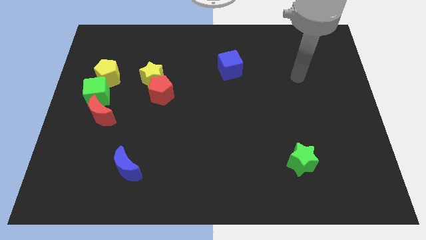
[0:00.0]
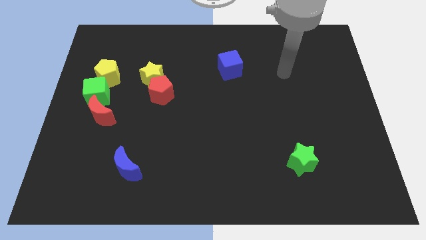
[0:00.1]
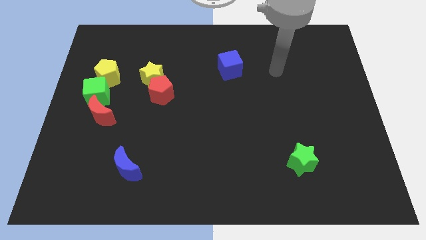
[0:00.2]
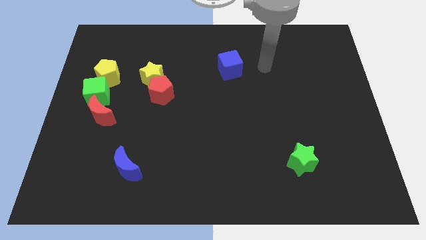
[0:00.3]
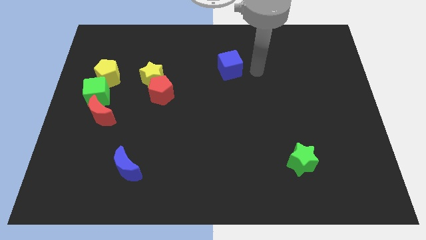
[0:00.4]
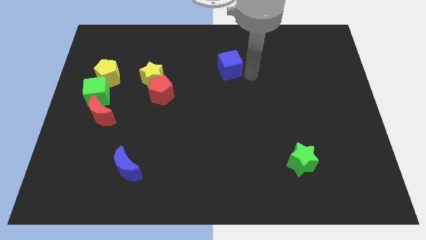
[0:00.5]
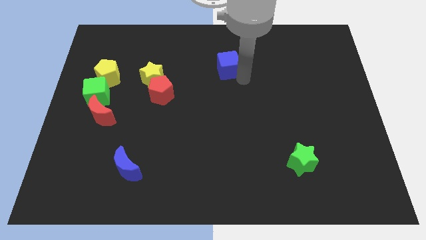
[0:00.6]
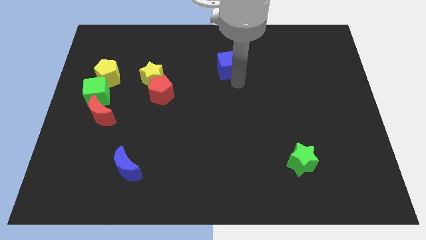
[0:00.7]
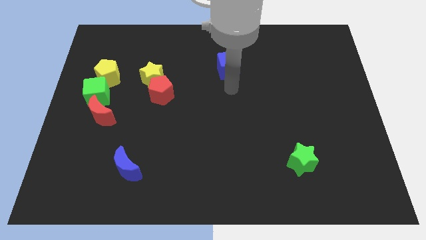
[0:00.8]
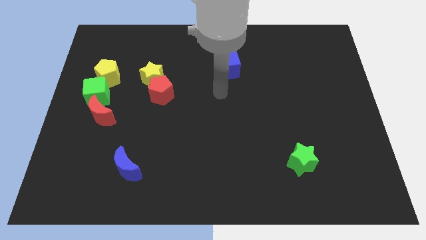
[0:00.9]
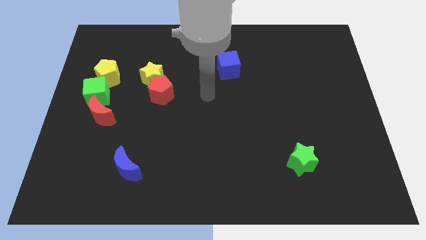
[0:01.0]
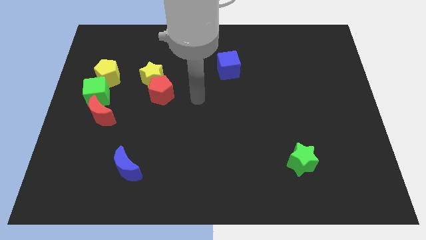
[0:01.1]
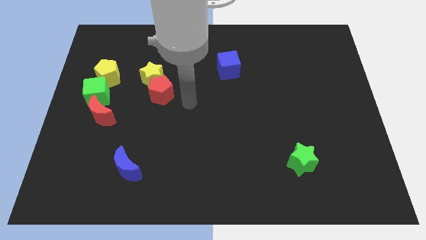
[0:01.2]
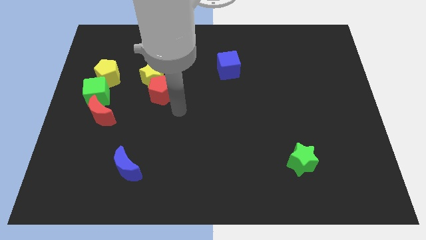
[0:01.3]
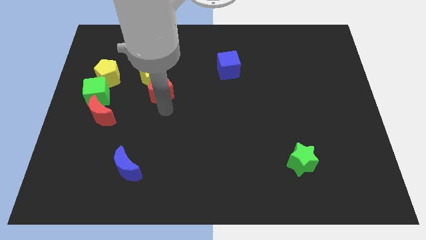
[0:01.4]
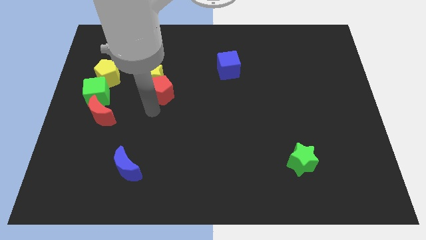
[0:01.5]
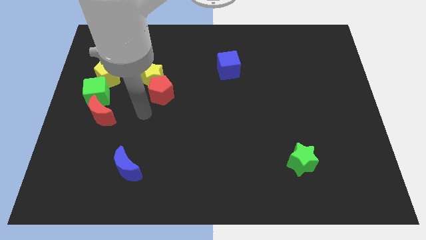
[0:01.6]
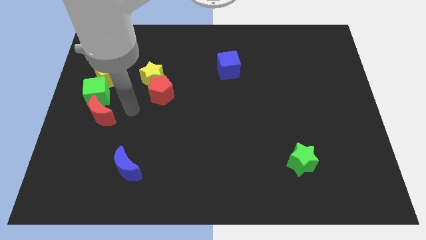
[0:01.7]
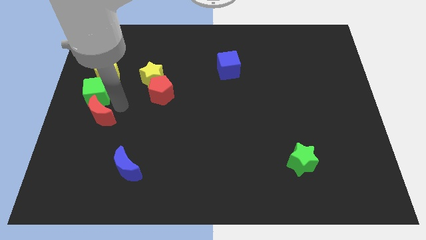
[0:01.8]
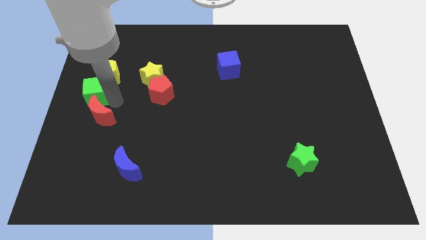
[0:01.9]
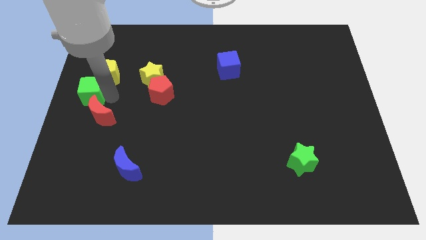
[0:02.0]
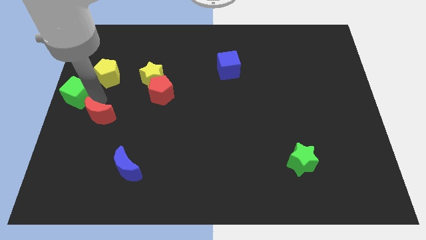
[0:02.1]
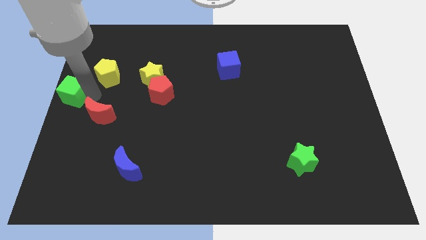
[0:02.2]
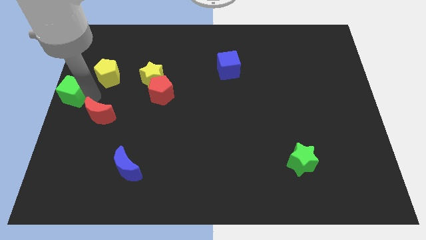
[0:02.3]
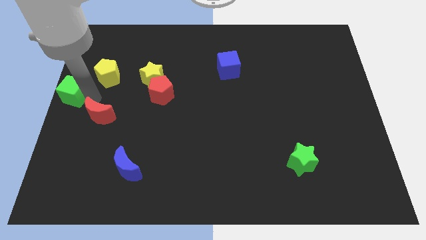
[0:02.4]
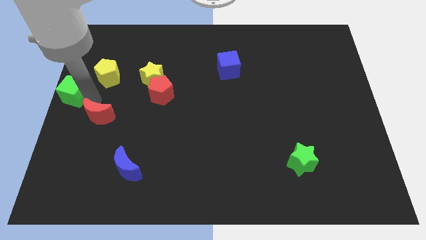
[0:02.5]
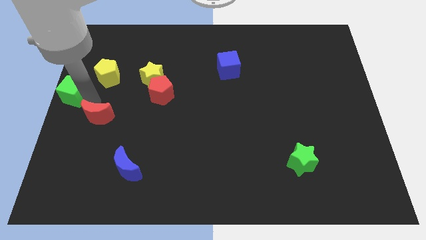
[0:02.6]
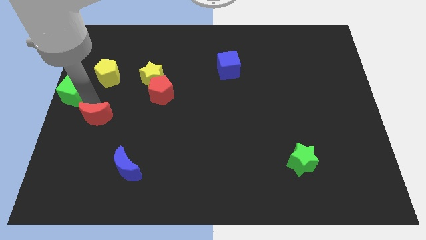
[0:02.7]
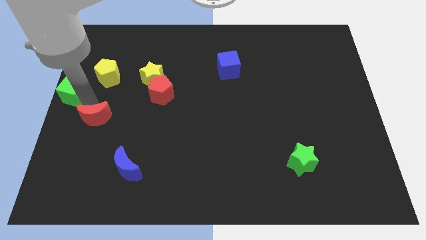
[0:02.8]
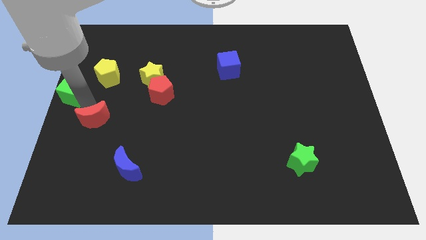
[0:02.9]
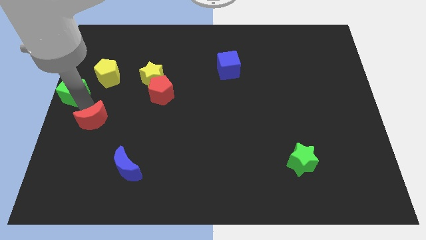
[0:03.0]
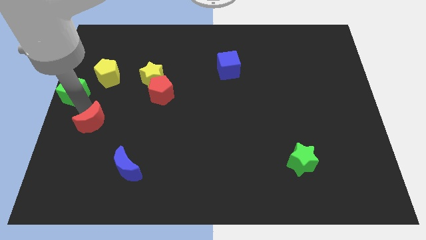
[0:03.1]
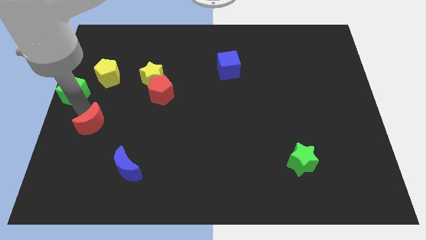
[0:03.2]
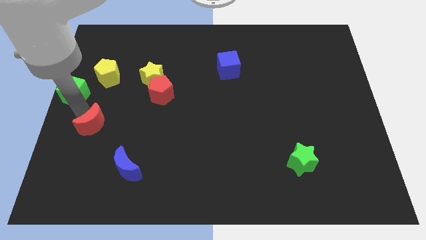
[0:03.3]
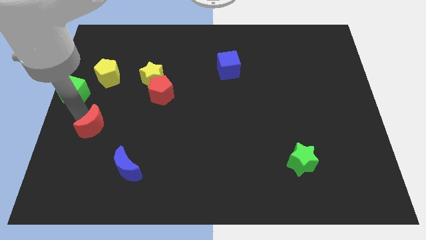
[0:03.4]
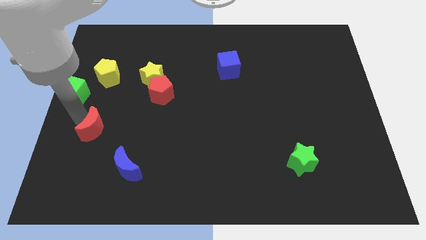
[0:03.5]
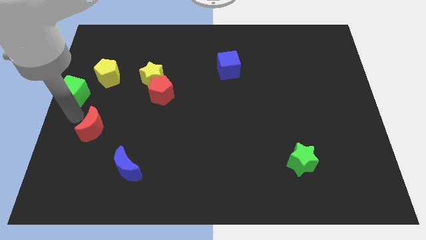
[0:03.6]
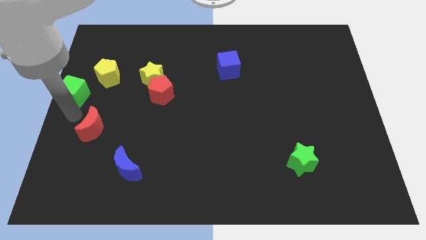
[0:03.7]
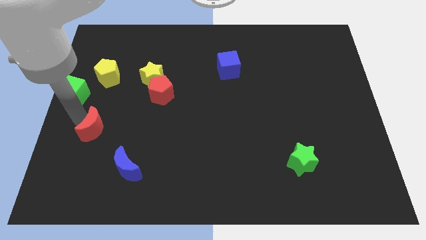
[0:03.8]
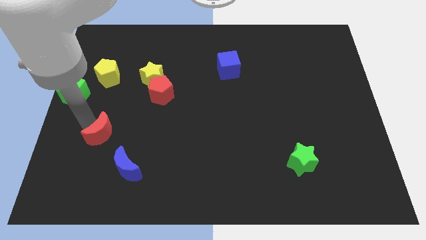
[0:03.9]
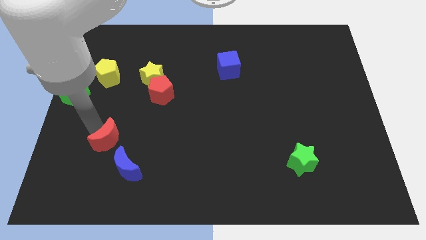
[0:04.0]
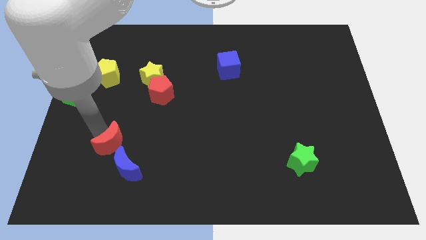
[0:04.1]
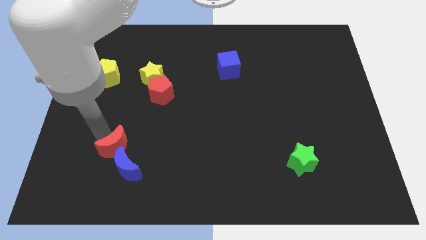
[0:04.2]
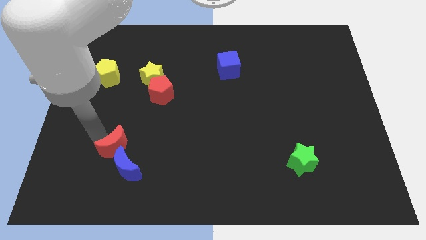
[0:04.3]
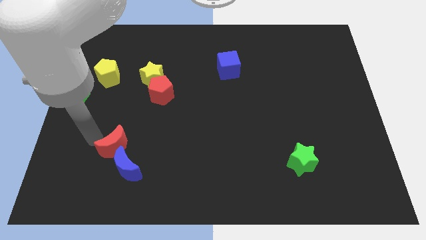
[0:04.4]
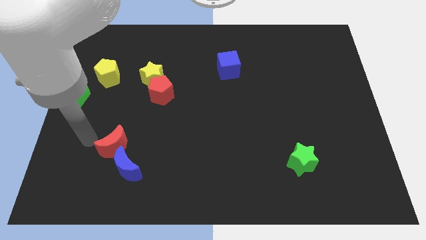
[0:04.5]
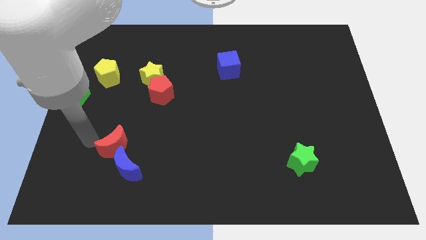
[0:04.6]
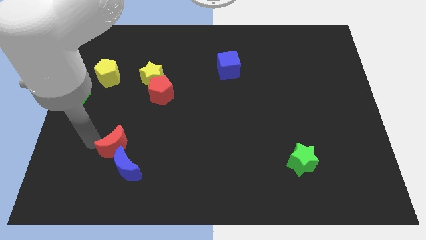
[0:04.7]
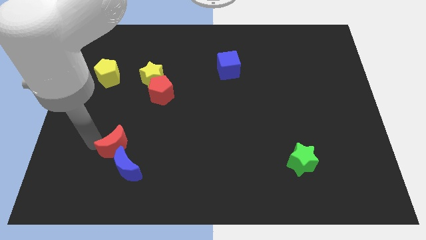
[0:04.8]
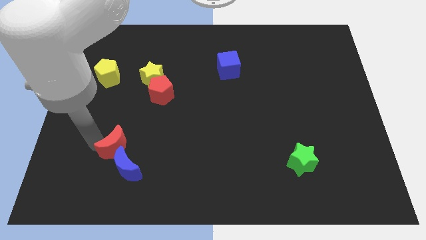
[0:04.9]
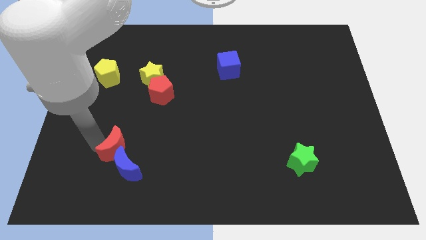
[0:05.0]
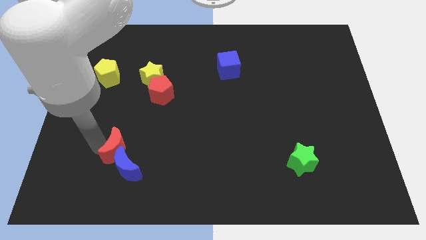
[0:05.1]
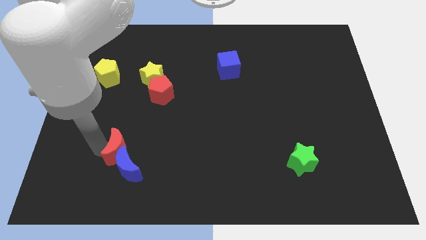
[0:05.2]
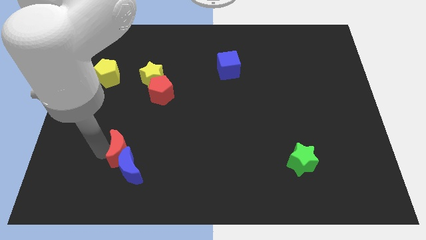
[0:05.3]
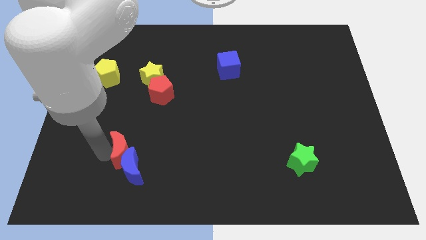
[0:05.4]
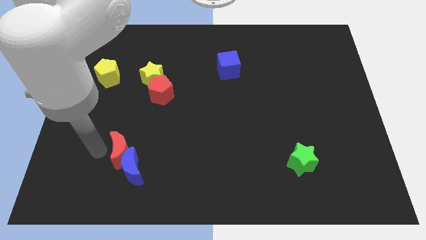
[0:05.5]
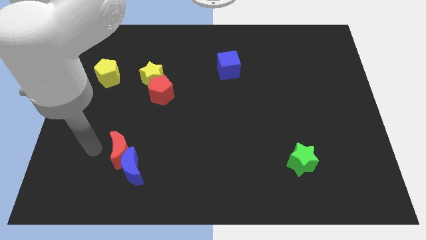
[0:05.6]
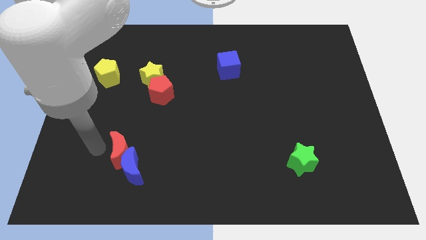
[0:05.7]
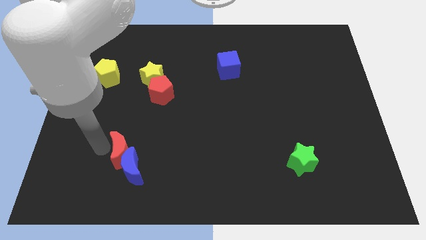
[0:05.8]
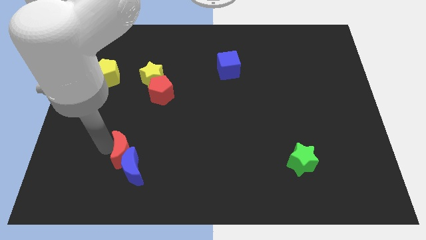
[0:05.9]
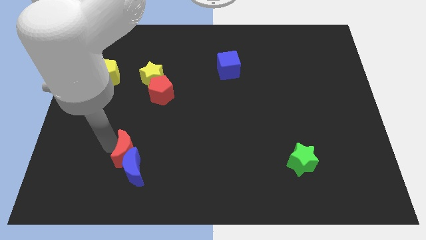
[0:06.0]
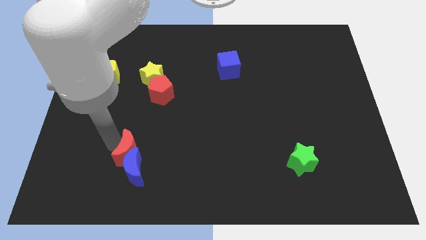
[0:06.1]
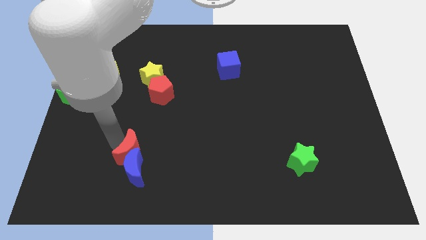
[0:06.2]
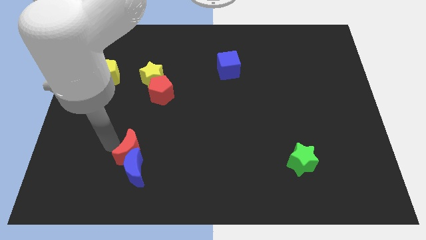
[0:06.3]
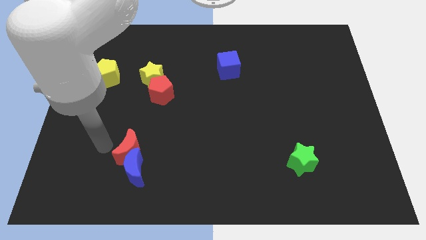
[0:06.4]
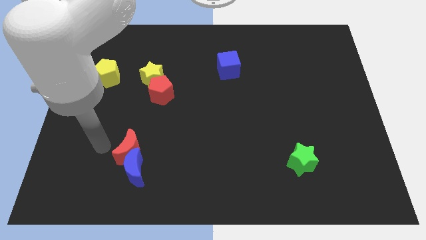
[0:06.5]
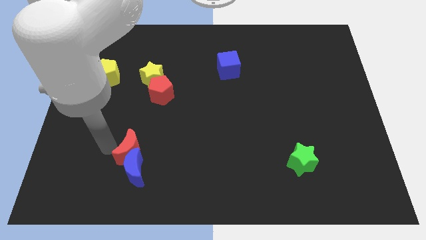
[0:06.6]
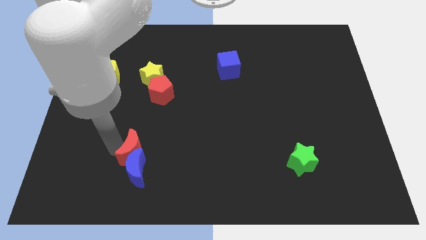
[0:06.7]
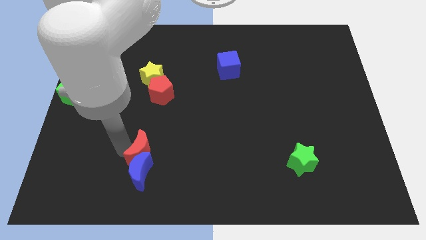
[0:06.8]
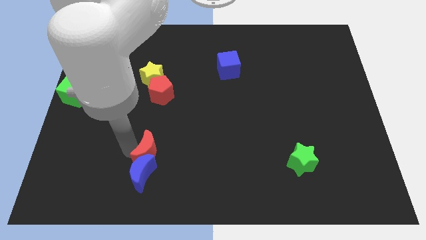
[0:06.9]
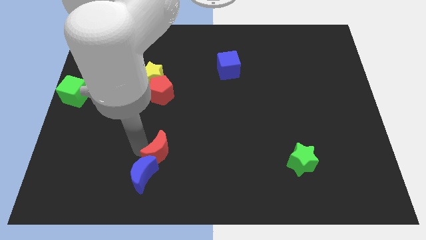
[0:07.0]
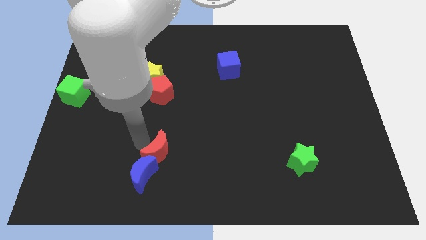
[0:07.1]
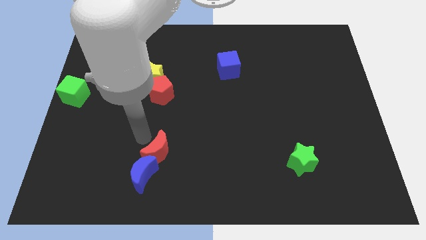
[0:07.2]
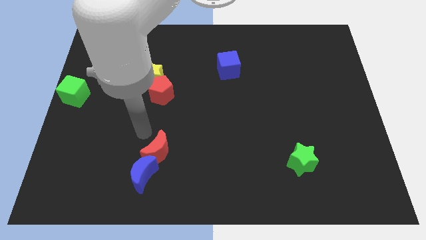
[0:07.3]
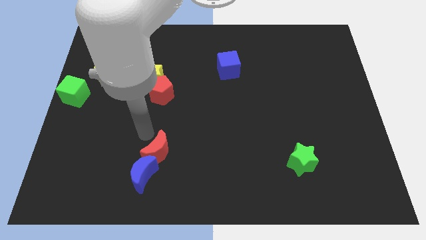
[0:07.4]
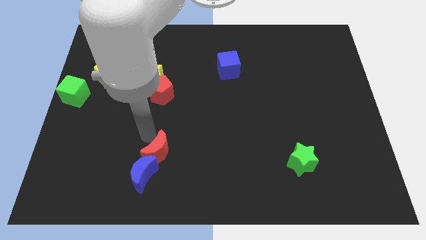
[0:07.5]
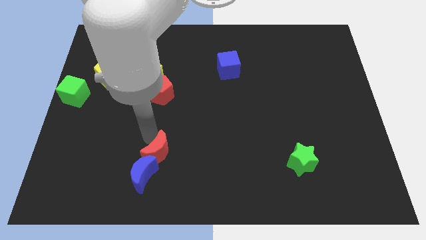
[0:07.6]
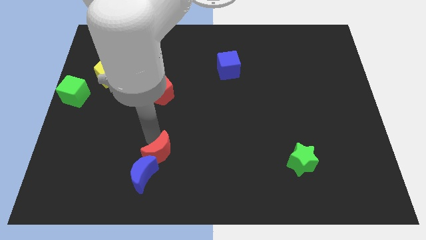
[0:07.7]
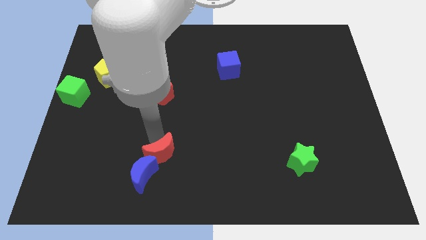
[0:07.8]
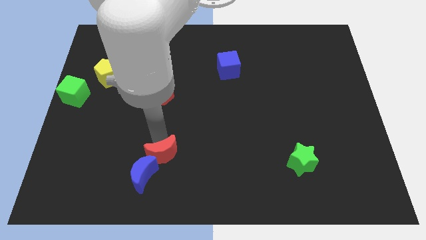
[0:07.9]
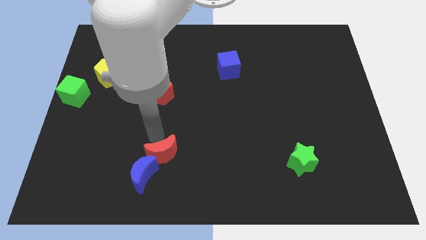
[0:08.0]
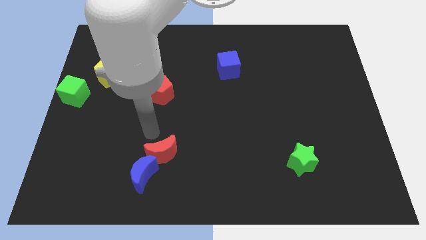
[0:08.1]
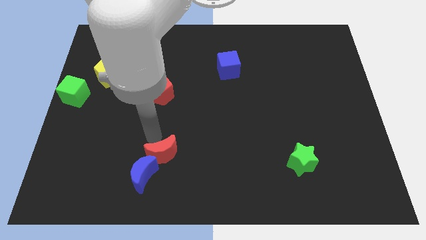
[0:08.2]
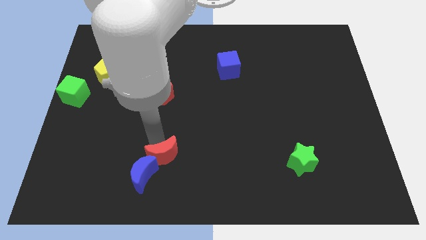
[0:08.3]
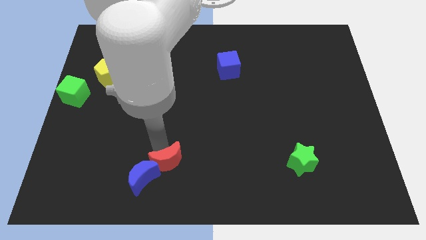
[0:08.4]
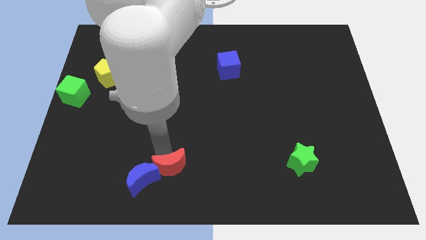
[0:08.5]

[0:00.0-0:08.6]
put the red moon to the bottom
